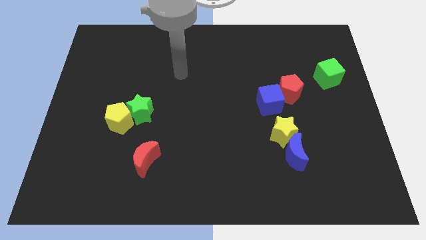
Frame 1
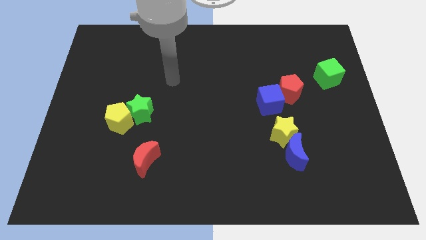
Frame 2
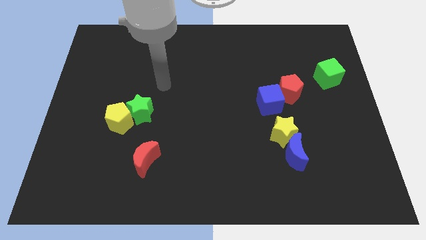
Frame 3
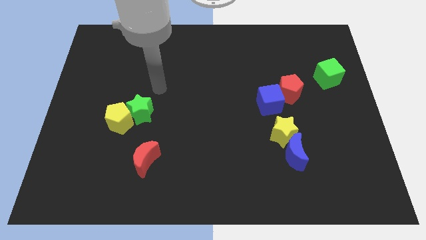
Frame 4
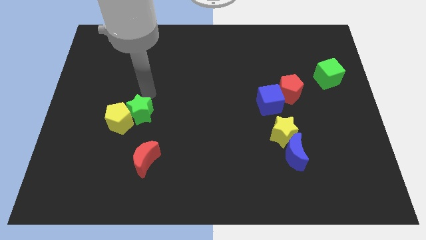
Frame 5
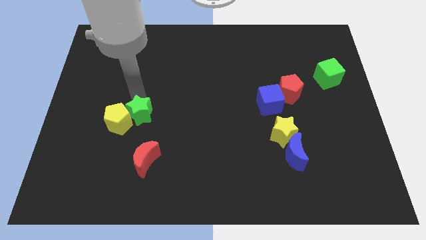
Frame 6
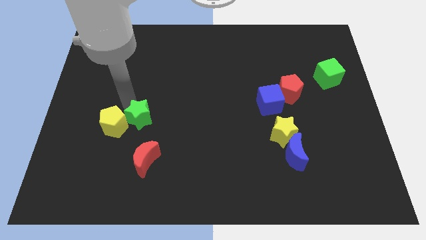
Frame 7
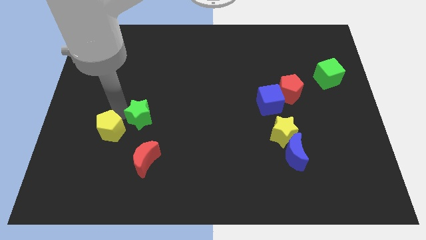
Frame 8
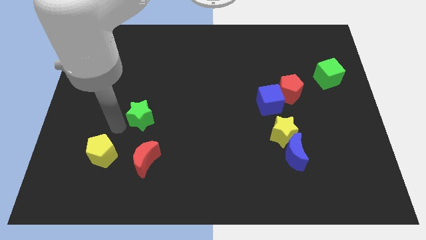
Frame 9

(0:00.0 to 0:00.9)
pull the green star apart from the yellow pentagon

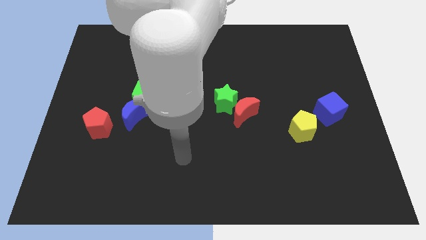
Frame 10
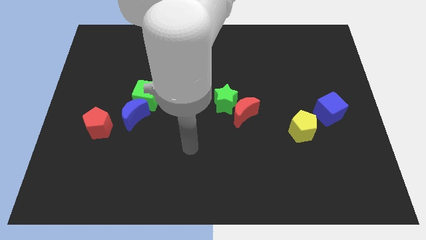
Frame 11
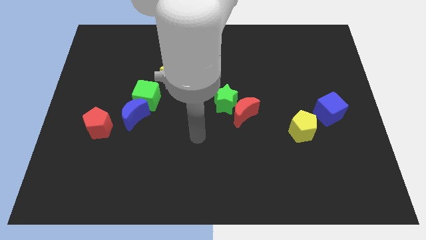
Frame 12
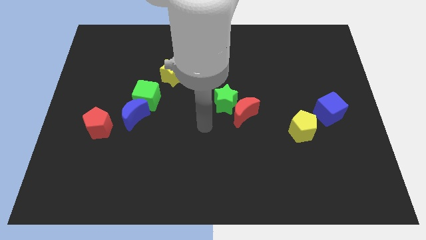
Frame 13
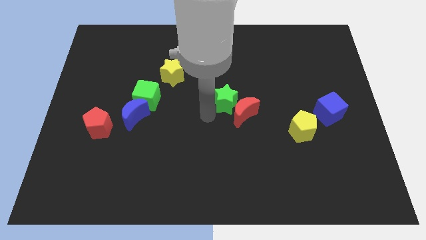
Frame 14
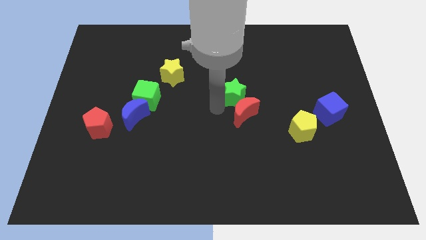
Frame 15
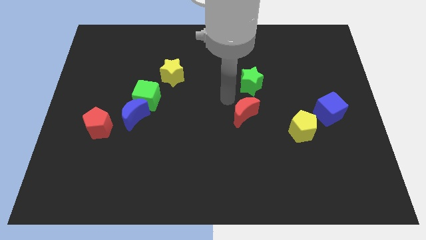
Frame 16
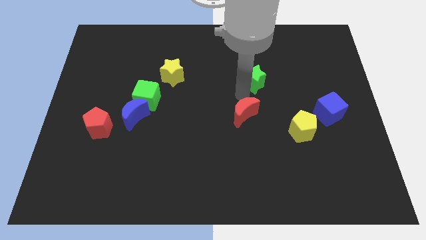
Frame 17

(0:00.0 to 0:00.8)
separate the red moon from the green star

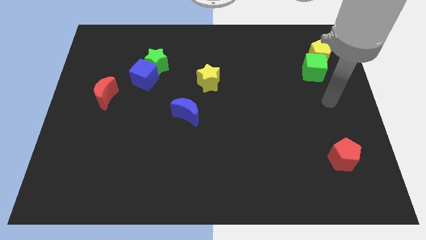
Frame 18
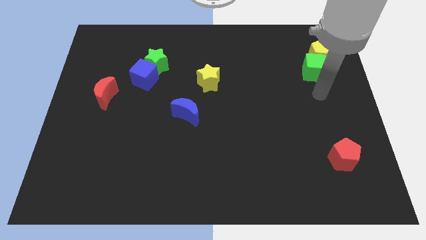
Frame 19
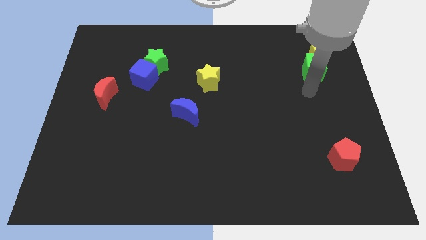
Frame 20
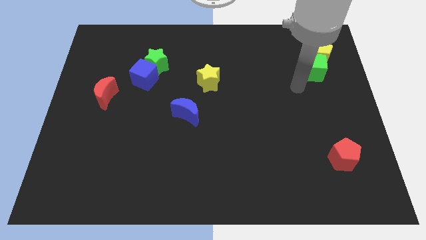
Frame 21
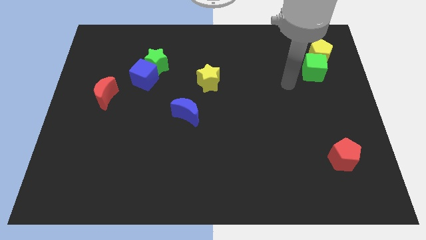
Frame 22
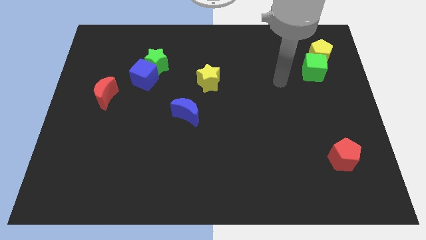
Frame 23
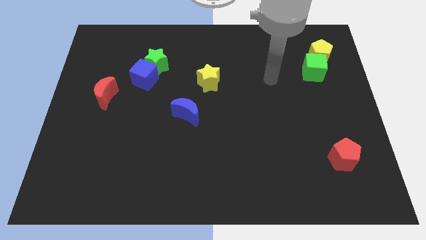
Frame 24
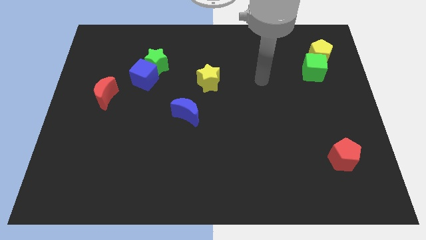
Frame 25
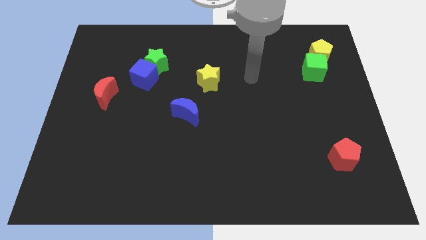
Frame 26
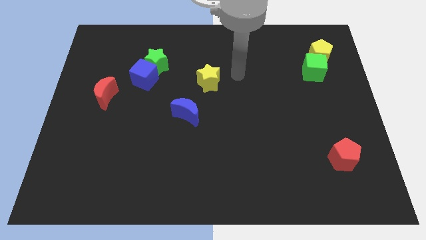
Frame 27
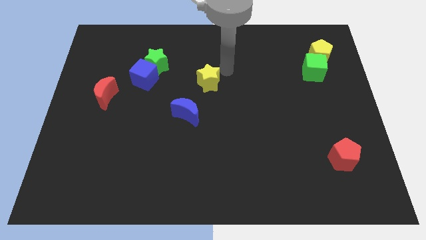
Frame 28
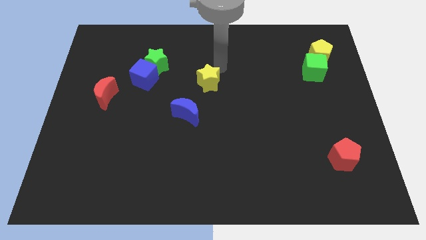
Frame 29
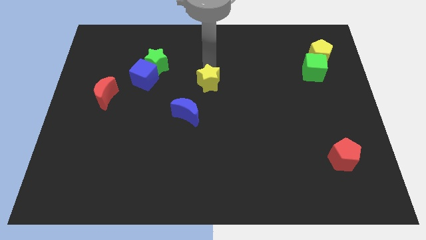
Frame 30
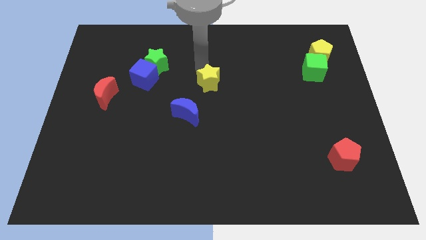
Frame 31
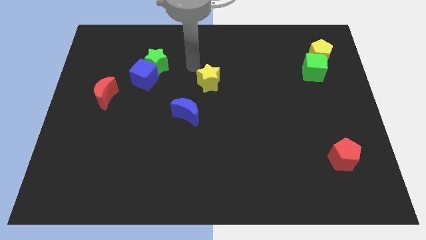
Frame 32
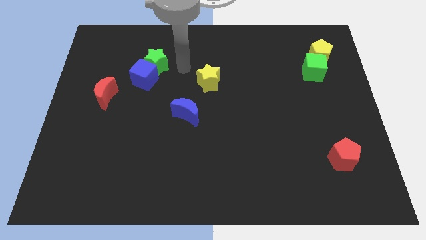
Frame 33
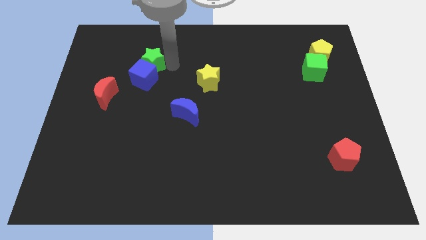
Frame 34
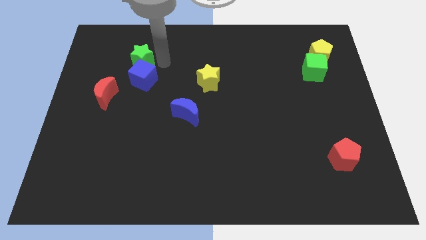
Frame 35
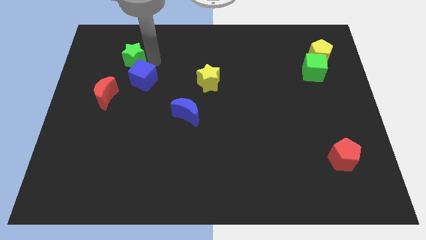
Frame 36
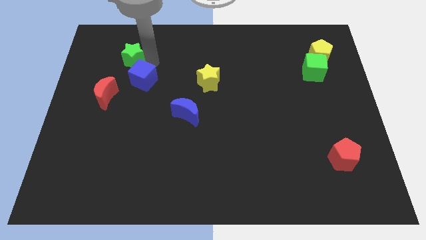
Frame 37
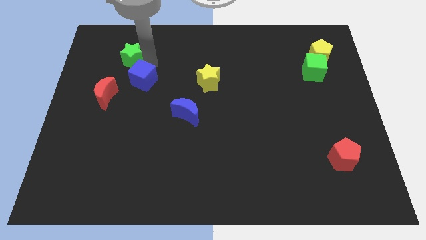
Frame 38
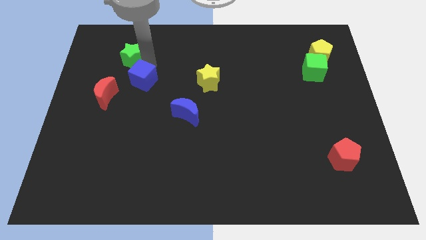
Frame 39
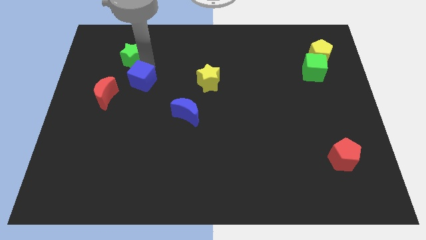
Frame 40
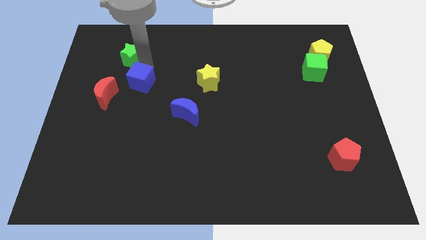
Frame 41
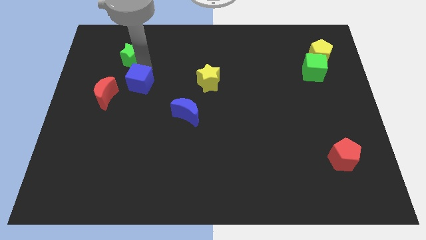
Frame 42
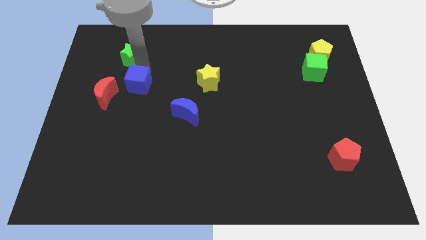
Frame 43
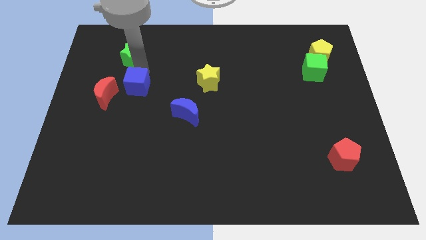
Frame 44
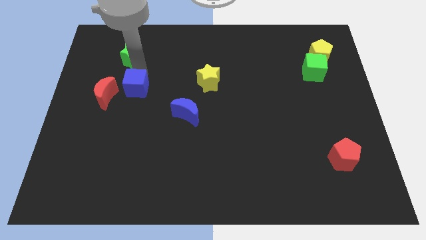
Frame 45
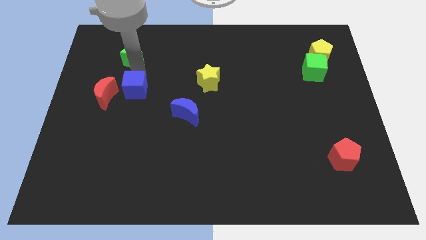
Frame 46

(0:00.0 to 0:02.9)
move the blue cube away from the green star

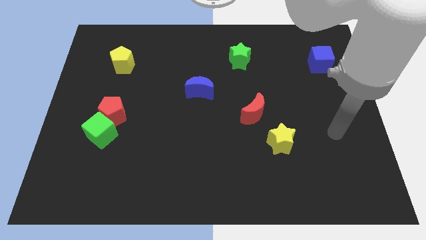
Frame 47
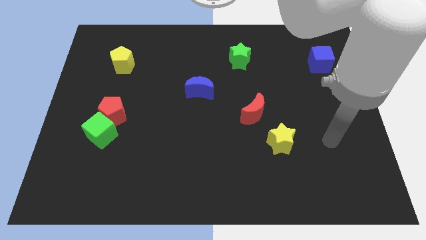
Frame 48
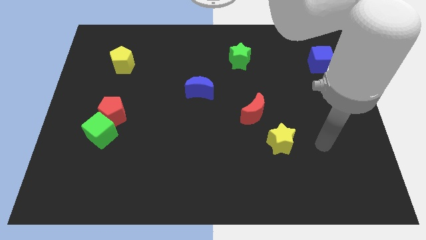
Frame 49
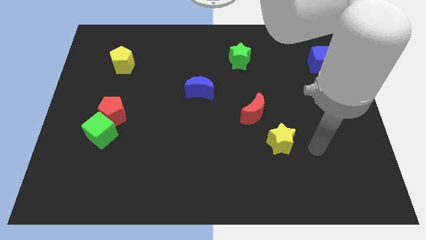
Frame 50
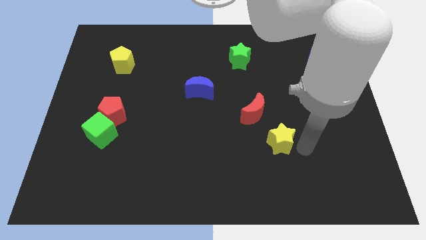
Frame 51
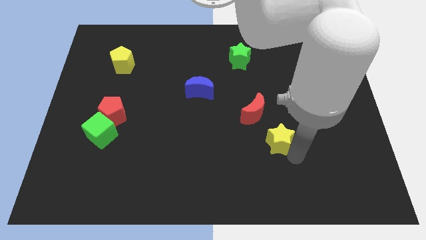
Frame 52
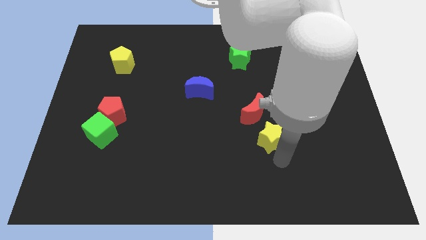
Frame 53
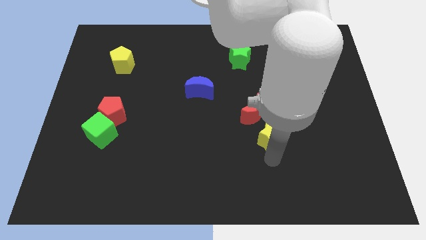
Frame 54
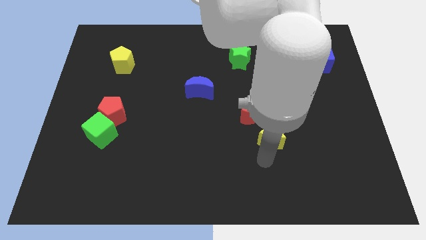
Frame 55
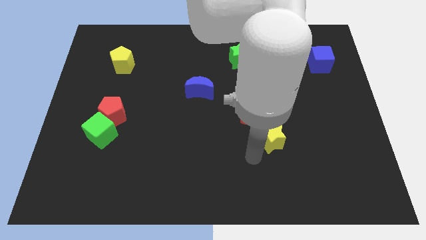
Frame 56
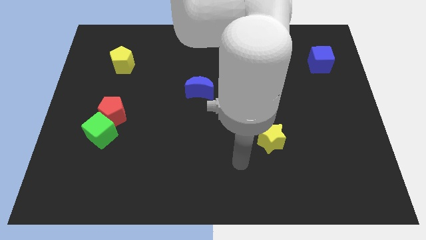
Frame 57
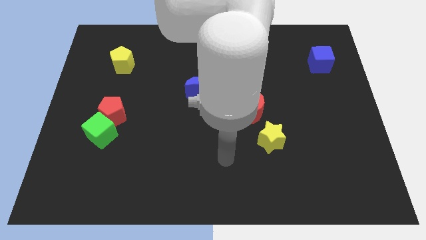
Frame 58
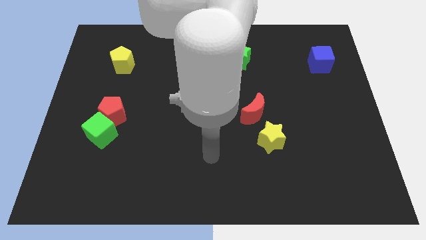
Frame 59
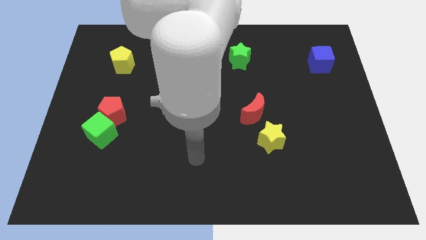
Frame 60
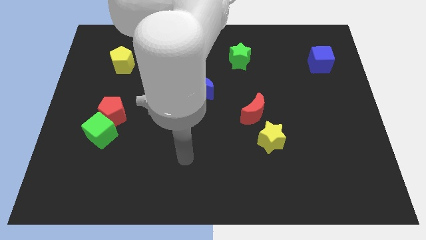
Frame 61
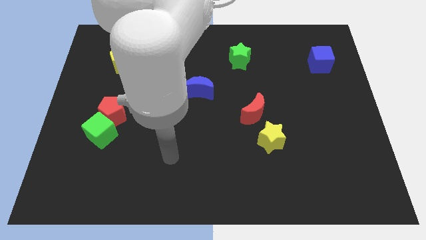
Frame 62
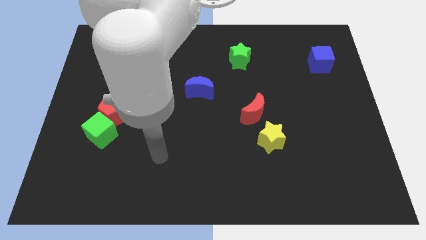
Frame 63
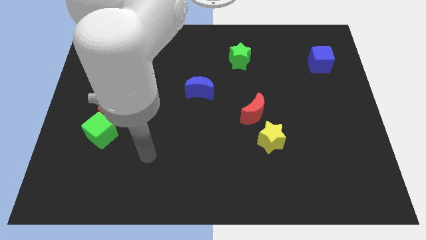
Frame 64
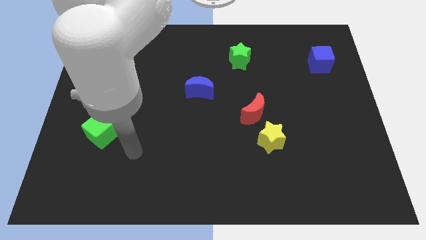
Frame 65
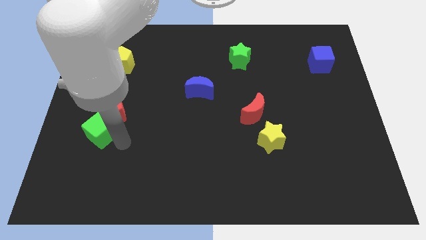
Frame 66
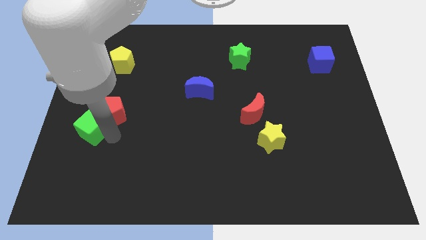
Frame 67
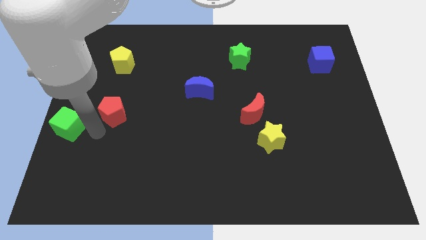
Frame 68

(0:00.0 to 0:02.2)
move the red pentagon away from the green cube

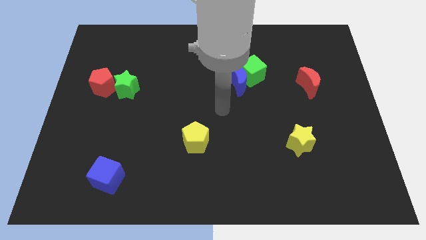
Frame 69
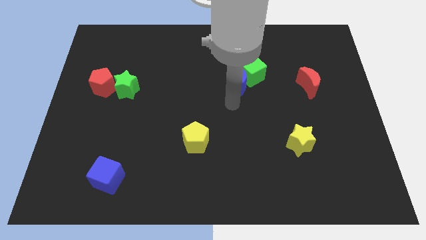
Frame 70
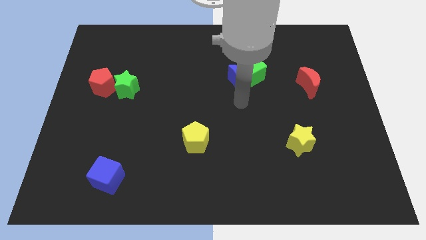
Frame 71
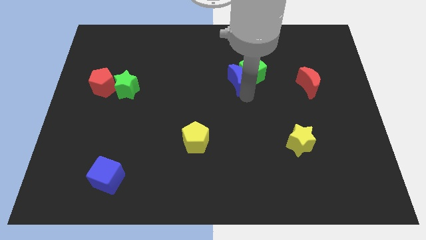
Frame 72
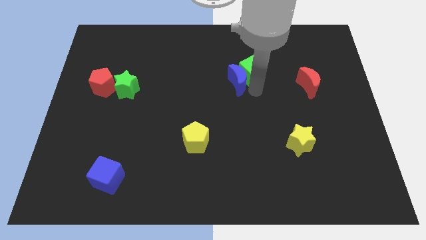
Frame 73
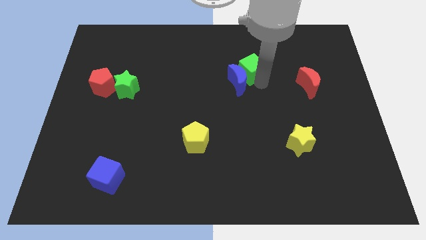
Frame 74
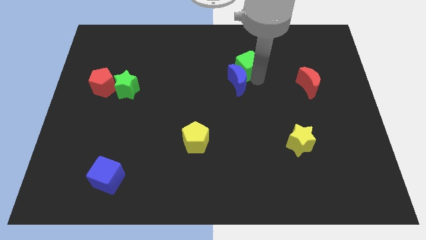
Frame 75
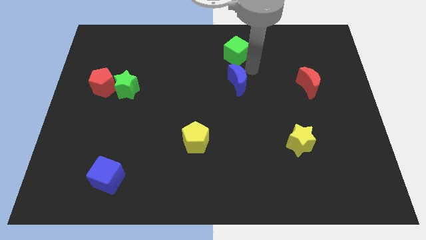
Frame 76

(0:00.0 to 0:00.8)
move the blue moon away from the green cube

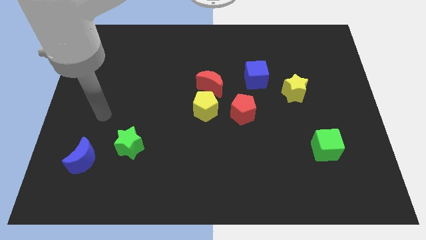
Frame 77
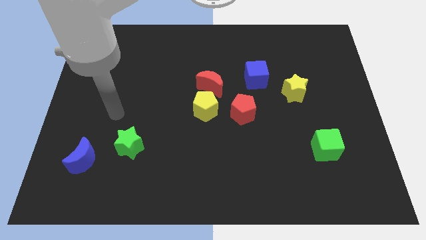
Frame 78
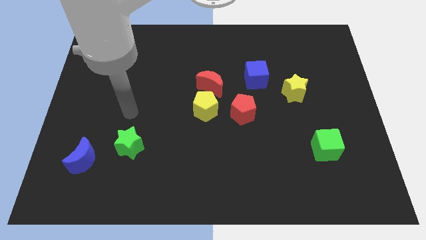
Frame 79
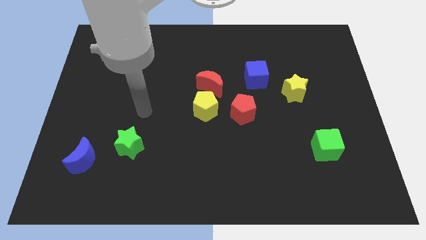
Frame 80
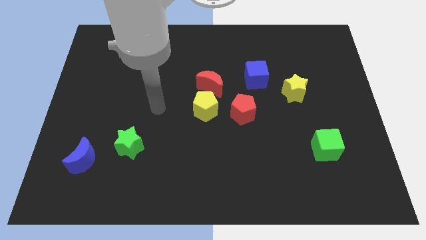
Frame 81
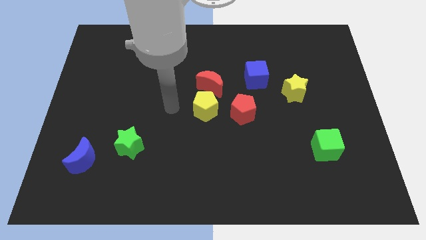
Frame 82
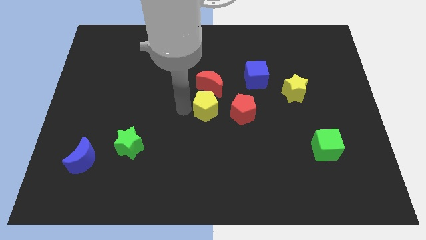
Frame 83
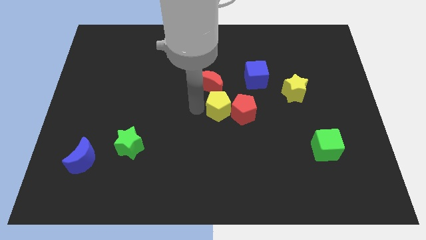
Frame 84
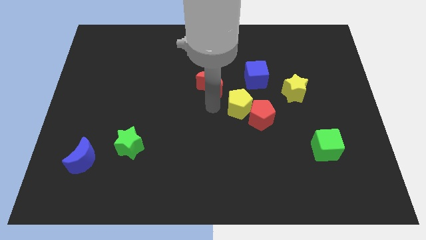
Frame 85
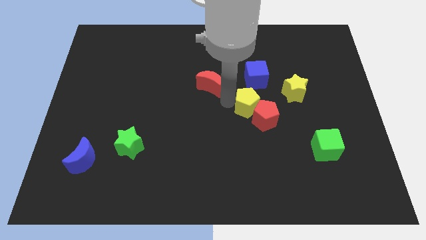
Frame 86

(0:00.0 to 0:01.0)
separate the red moon from the yellow pentagon

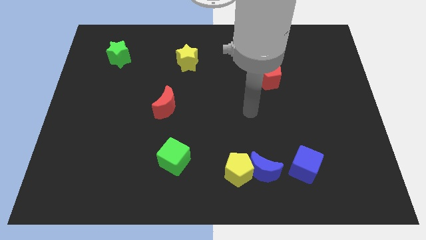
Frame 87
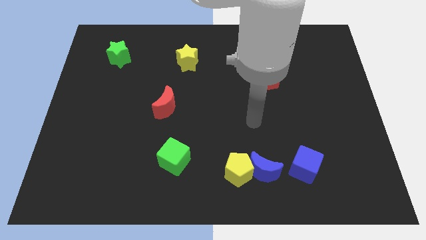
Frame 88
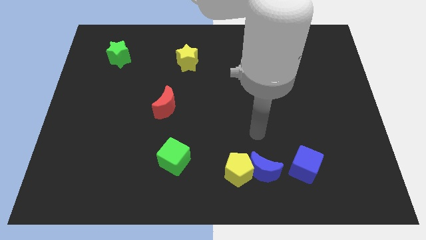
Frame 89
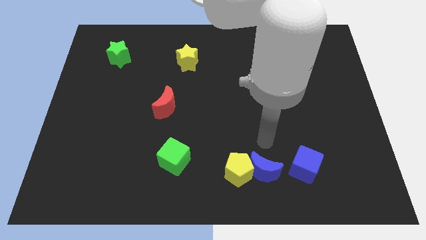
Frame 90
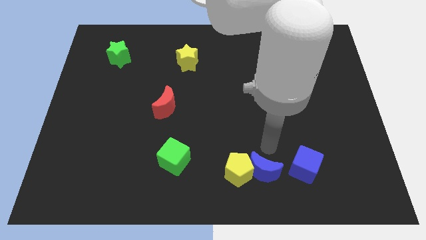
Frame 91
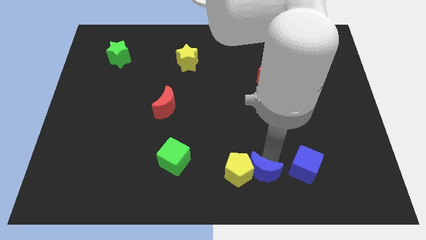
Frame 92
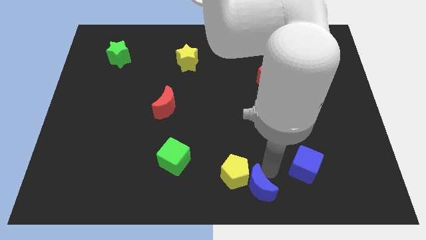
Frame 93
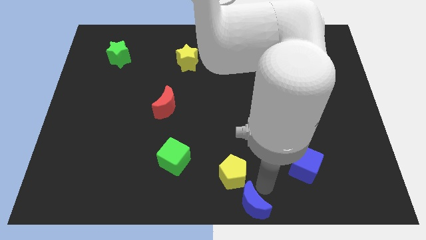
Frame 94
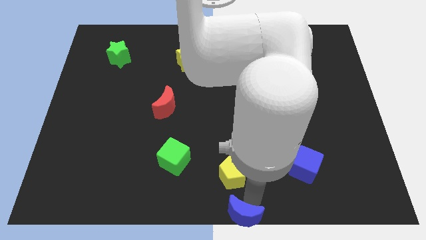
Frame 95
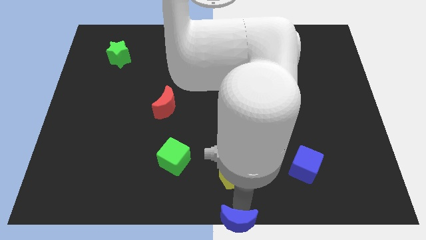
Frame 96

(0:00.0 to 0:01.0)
pull the yellow pentagon apart from the blue moon
